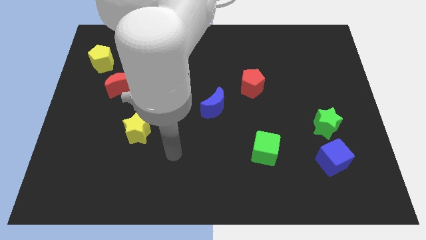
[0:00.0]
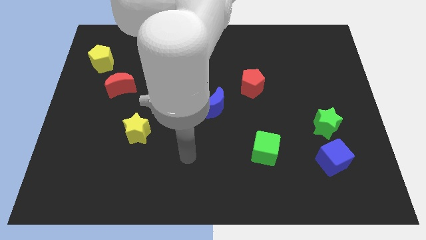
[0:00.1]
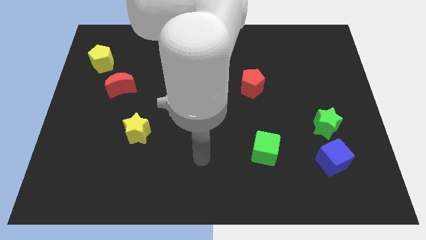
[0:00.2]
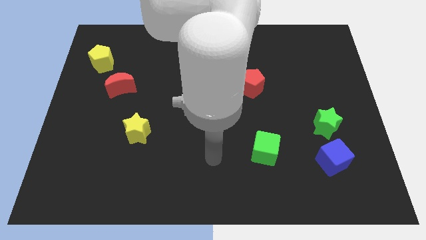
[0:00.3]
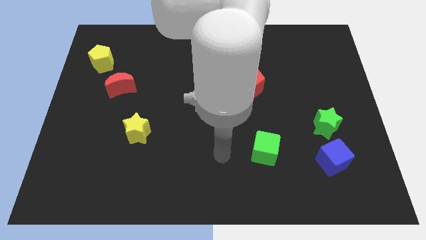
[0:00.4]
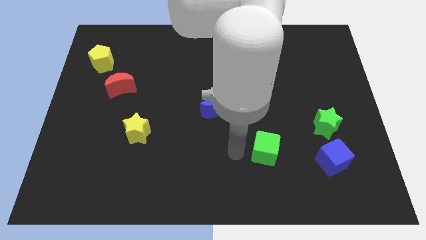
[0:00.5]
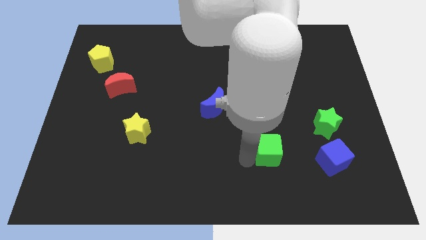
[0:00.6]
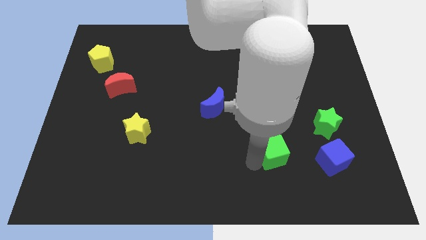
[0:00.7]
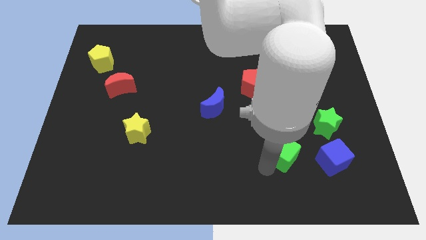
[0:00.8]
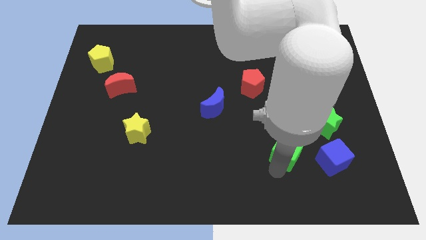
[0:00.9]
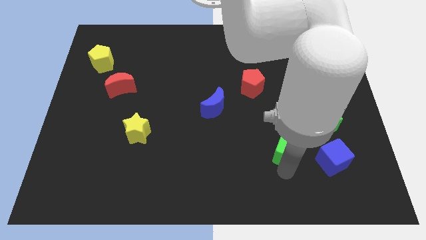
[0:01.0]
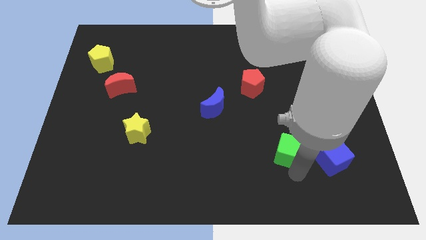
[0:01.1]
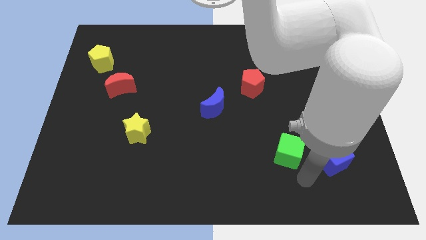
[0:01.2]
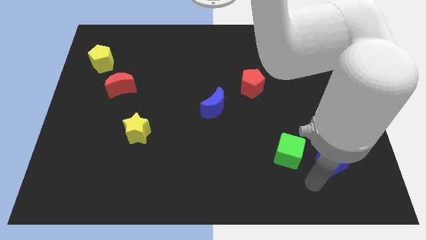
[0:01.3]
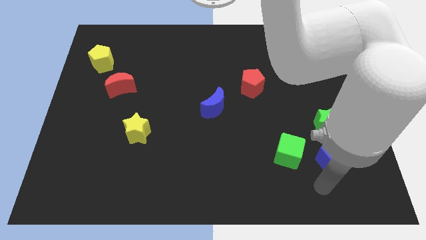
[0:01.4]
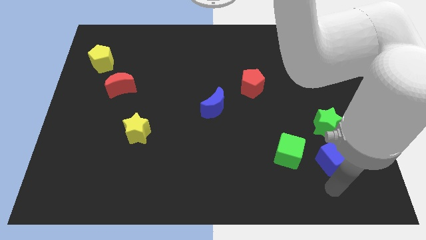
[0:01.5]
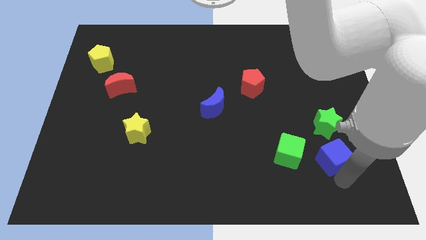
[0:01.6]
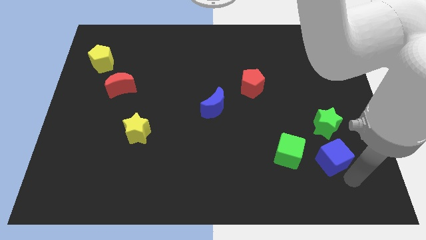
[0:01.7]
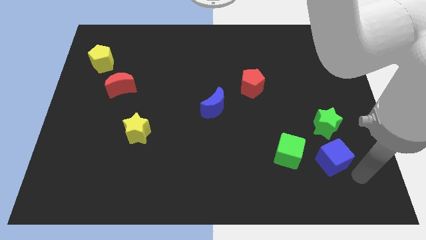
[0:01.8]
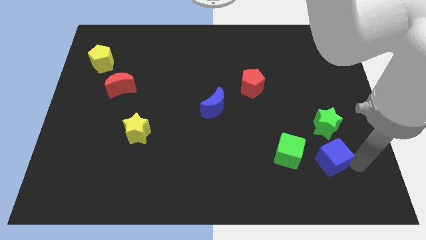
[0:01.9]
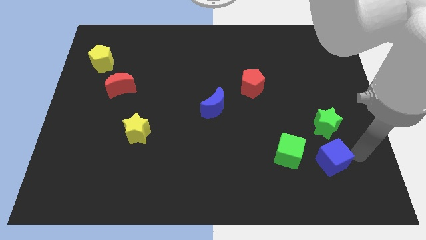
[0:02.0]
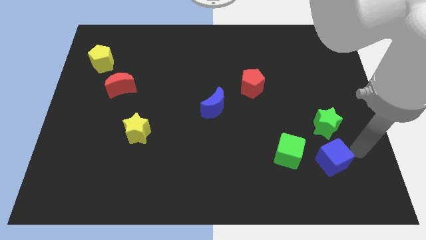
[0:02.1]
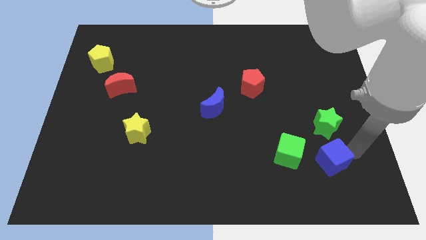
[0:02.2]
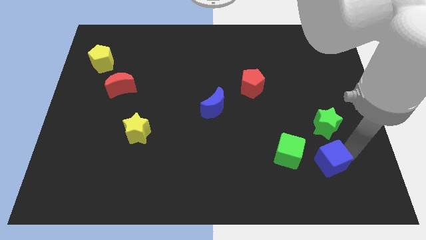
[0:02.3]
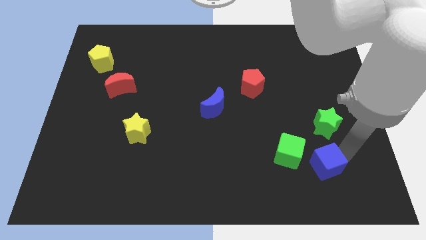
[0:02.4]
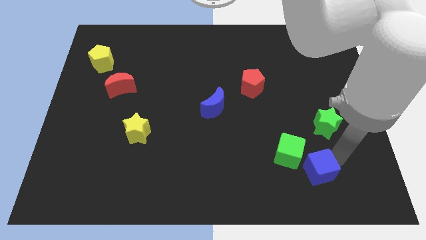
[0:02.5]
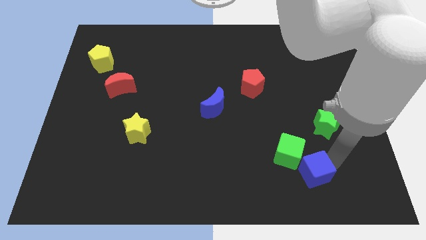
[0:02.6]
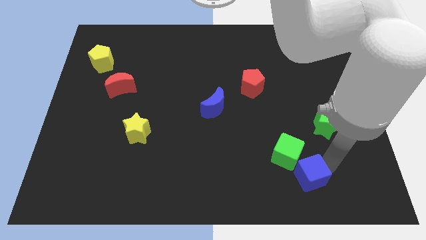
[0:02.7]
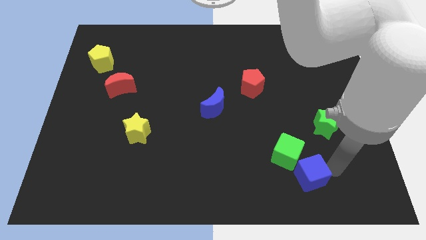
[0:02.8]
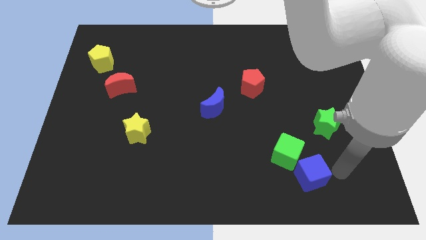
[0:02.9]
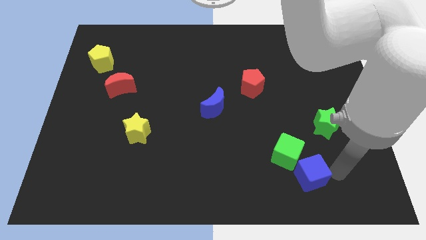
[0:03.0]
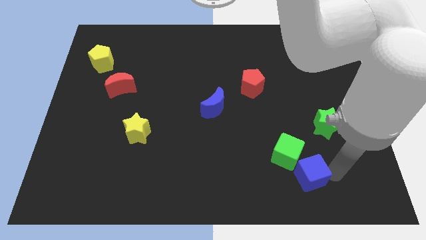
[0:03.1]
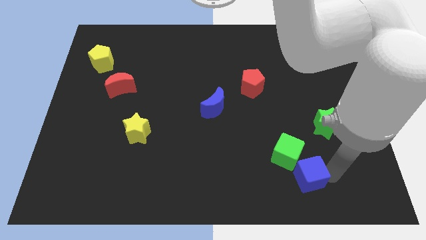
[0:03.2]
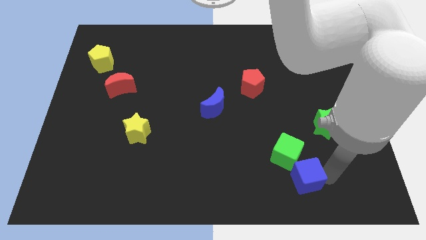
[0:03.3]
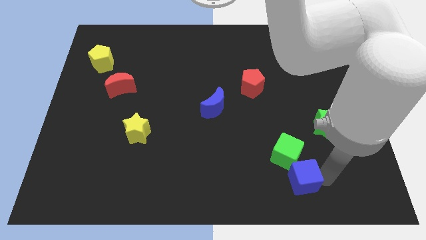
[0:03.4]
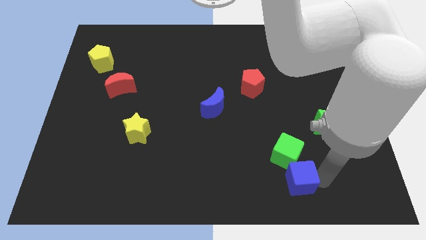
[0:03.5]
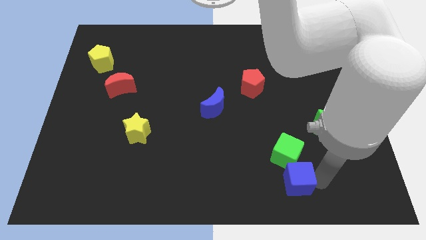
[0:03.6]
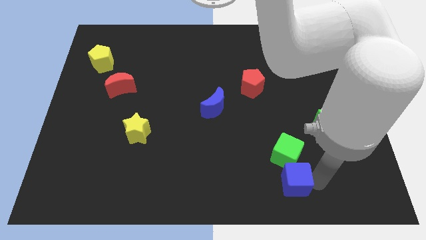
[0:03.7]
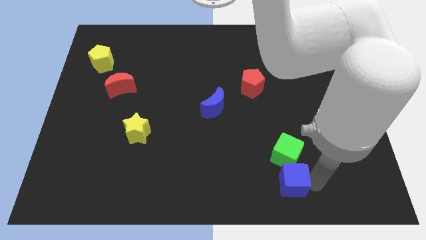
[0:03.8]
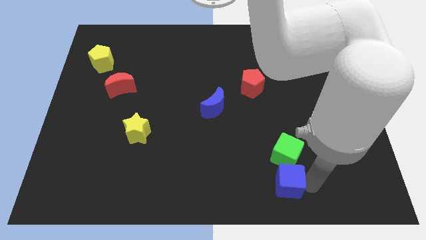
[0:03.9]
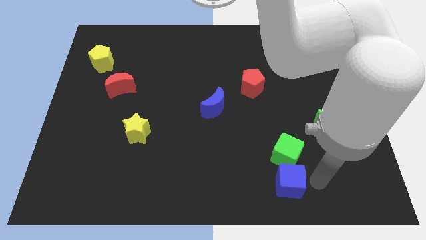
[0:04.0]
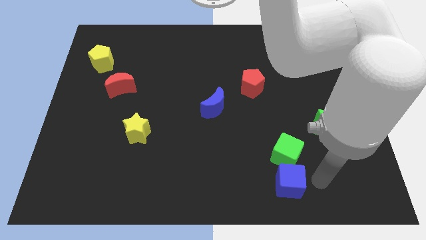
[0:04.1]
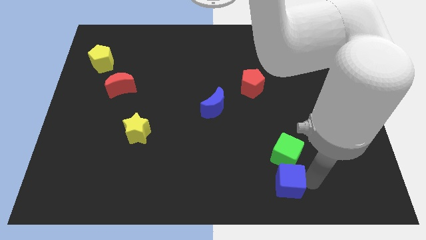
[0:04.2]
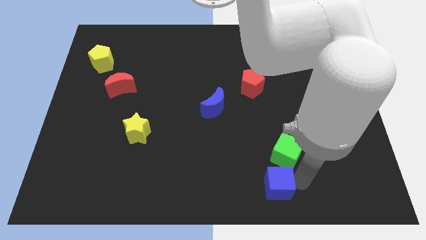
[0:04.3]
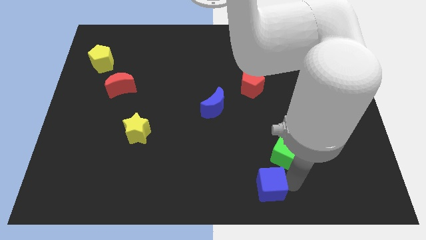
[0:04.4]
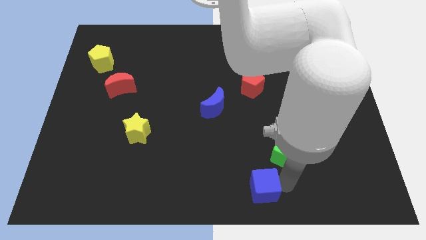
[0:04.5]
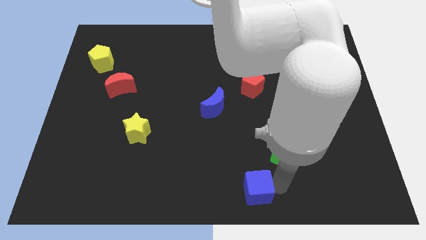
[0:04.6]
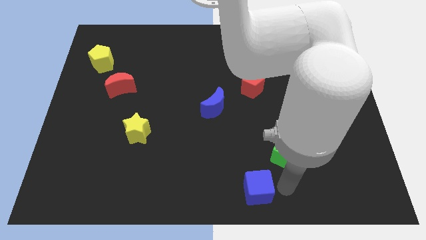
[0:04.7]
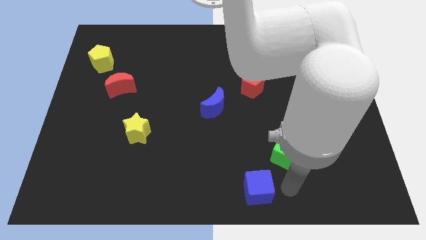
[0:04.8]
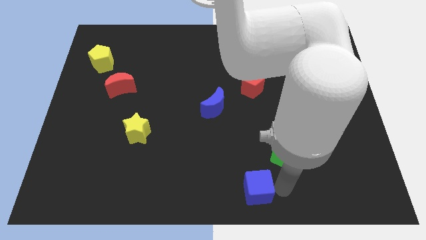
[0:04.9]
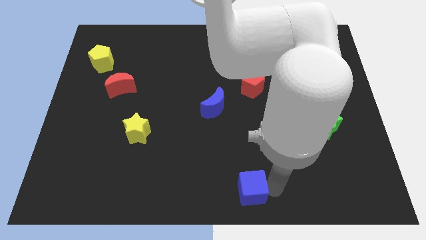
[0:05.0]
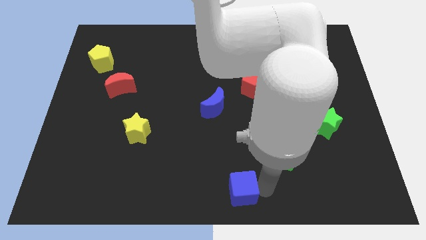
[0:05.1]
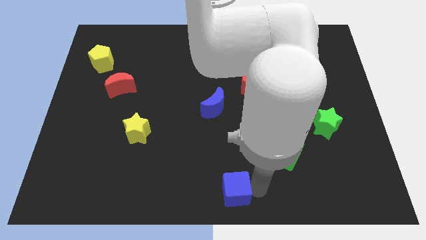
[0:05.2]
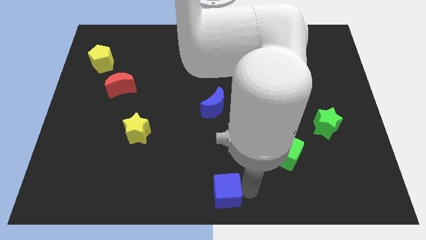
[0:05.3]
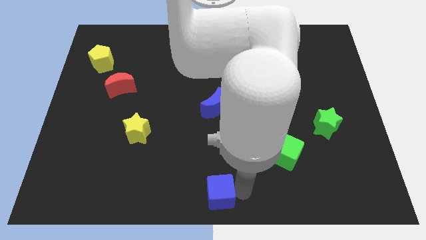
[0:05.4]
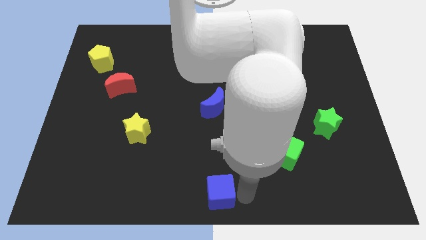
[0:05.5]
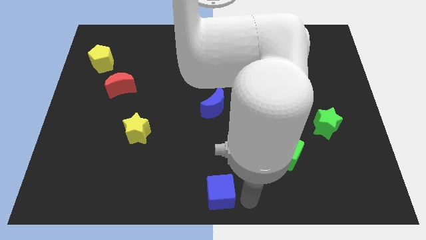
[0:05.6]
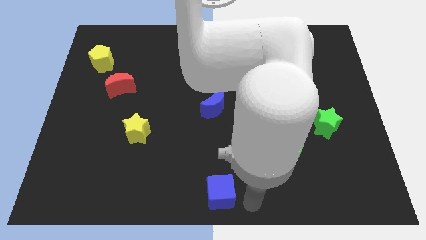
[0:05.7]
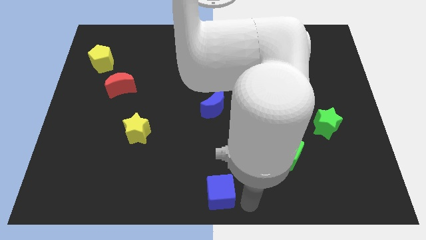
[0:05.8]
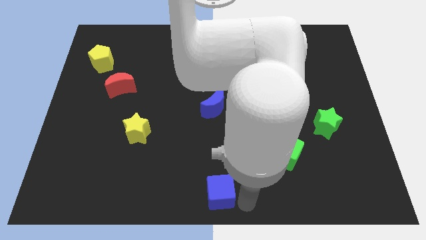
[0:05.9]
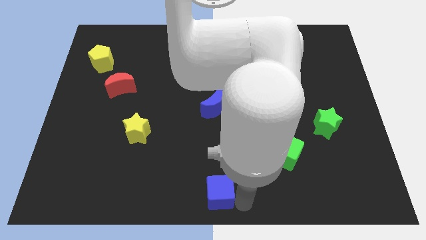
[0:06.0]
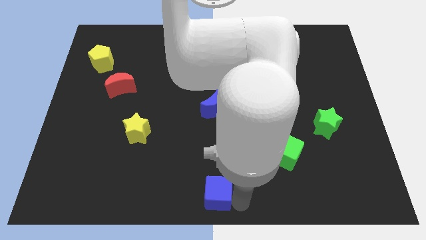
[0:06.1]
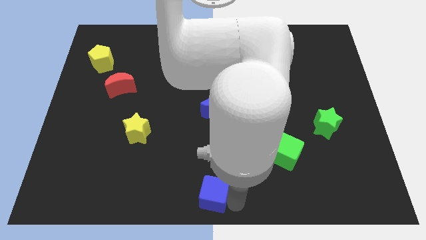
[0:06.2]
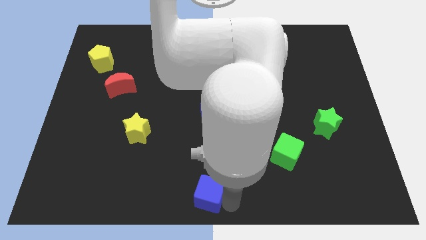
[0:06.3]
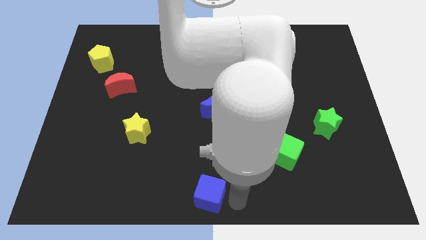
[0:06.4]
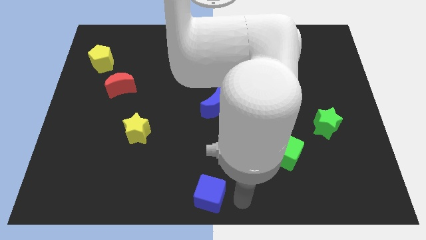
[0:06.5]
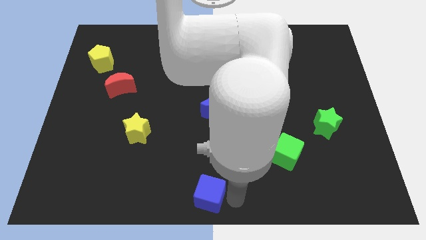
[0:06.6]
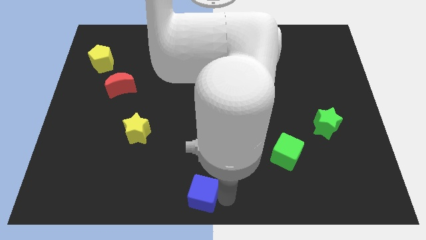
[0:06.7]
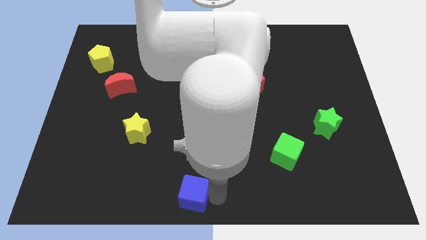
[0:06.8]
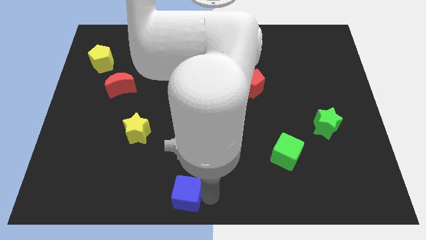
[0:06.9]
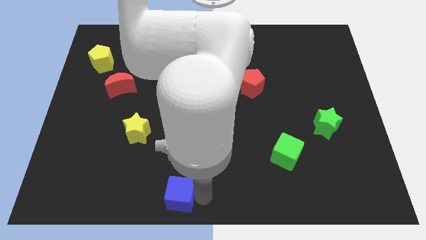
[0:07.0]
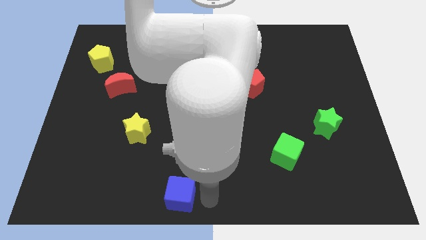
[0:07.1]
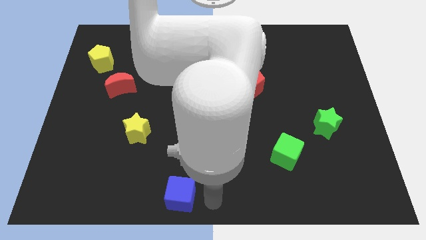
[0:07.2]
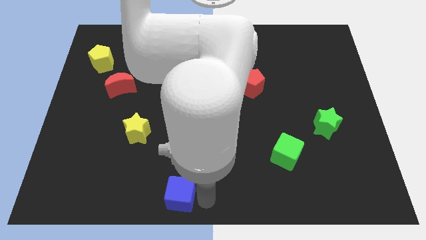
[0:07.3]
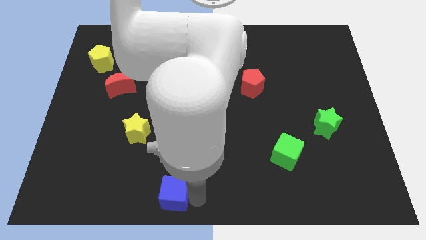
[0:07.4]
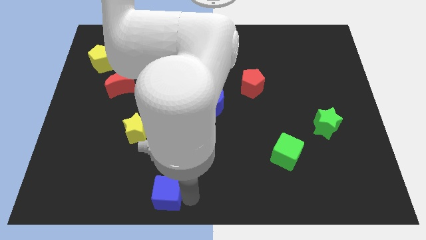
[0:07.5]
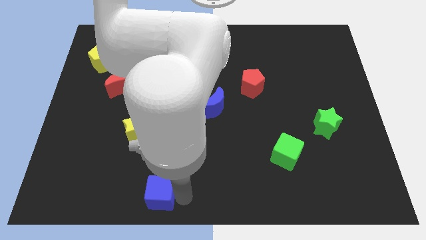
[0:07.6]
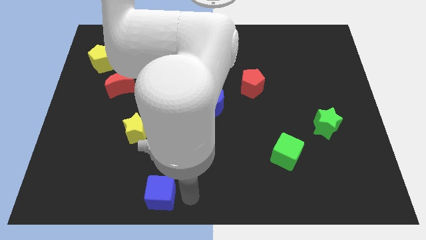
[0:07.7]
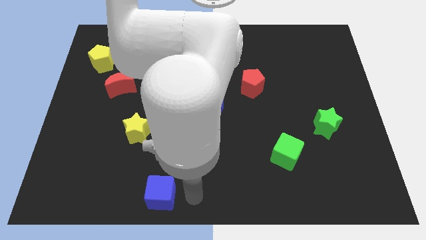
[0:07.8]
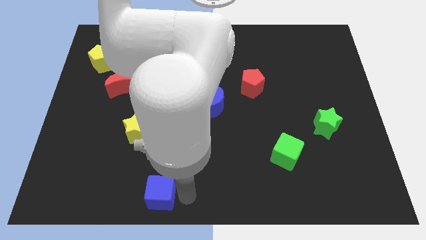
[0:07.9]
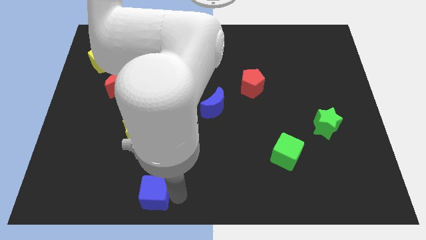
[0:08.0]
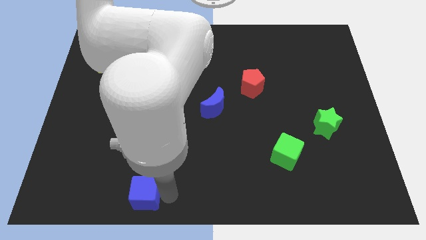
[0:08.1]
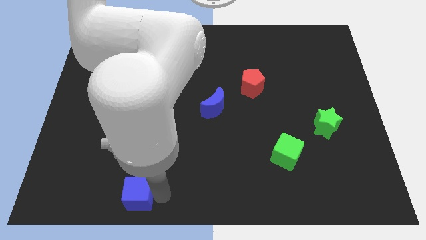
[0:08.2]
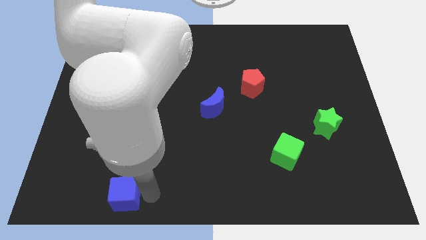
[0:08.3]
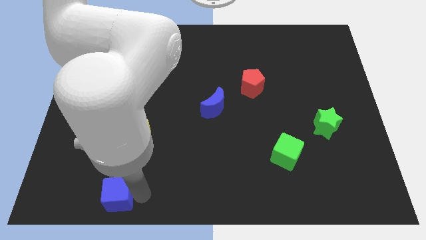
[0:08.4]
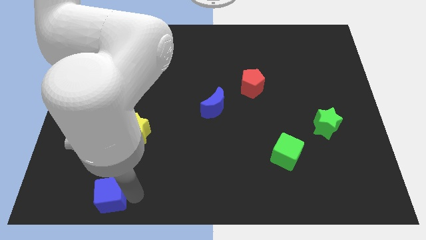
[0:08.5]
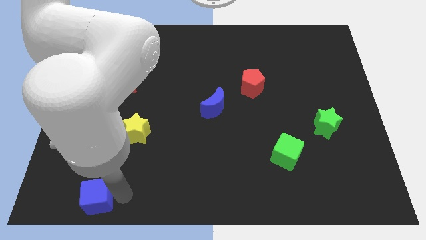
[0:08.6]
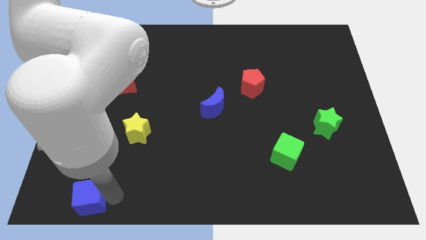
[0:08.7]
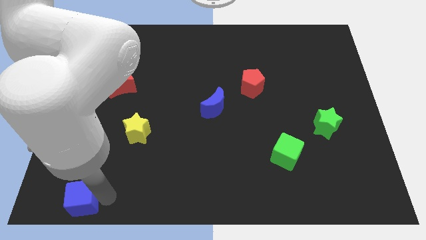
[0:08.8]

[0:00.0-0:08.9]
move the blue cube to the bottom left of the board
